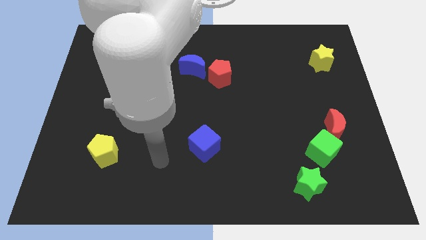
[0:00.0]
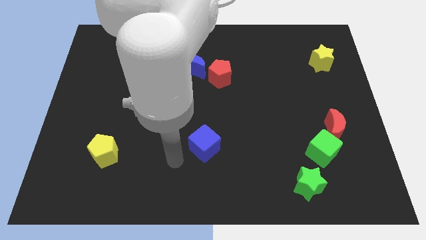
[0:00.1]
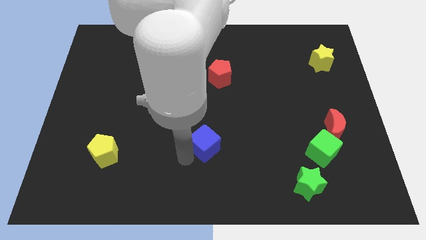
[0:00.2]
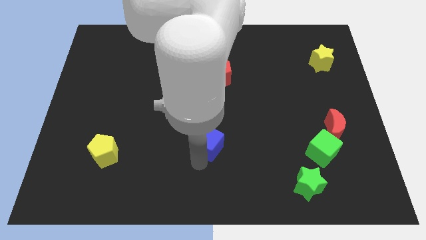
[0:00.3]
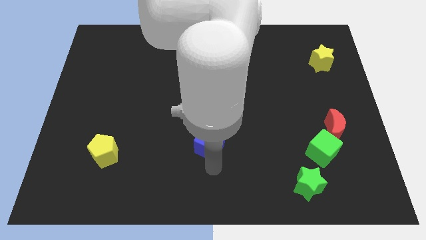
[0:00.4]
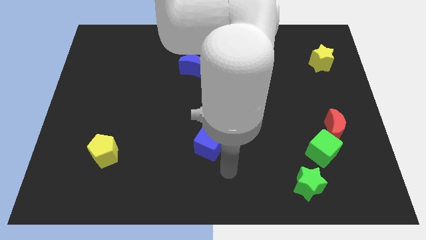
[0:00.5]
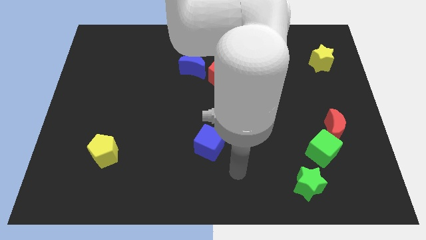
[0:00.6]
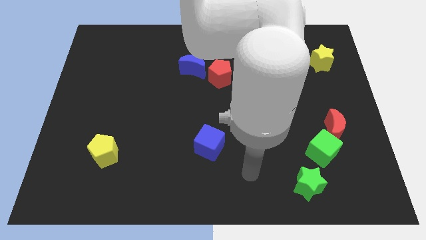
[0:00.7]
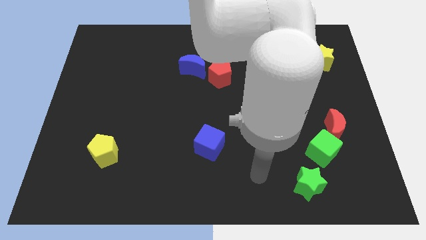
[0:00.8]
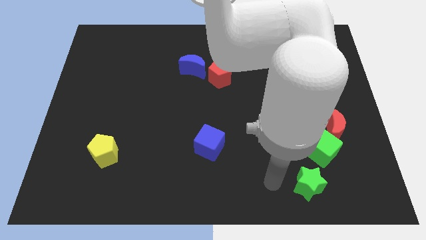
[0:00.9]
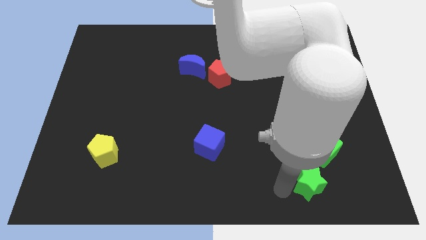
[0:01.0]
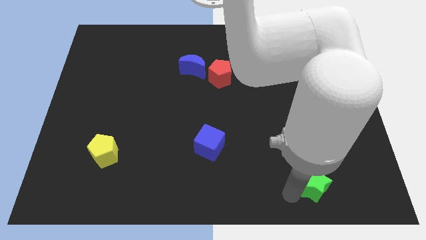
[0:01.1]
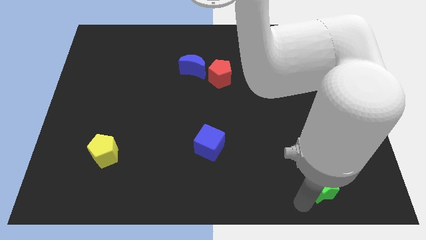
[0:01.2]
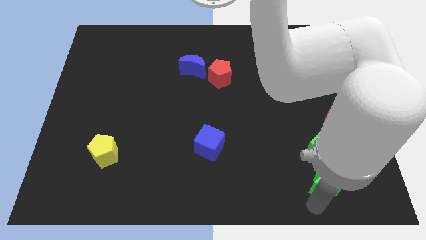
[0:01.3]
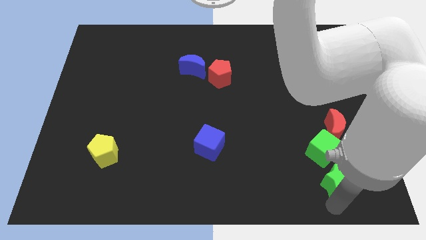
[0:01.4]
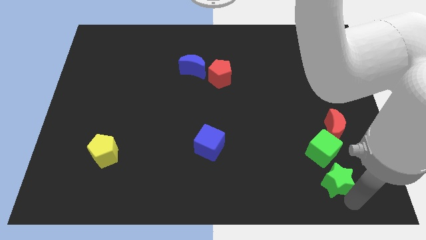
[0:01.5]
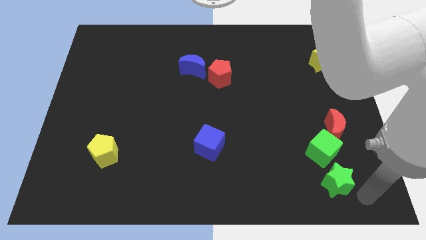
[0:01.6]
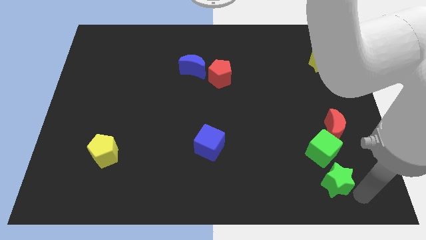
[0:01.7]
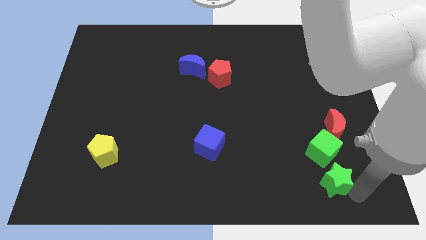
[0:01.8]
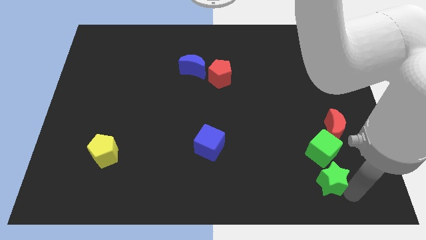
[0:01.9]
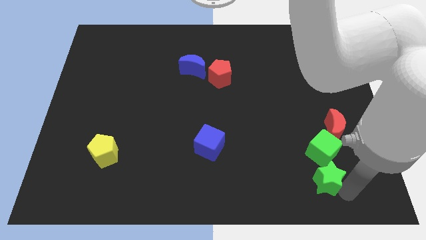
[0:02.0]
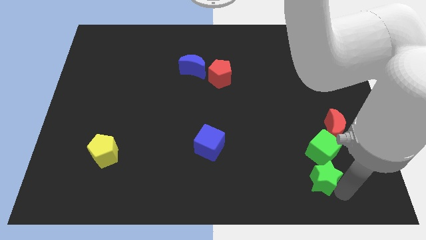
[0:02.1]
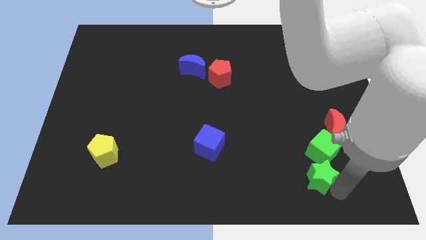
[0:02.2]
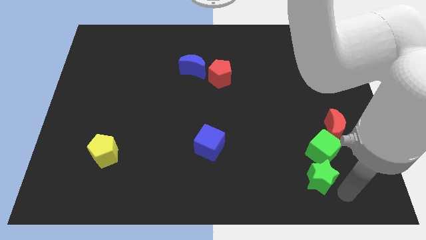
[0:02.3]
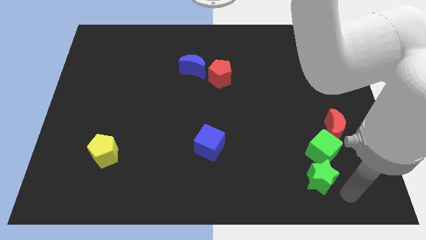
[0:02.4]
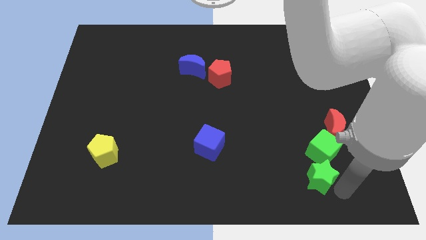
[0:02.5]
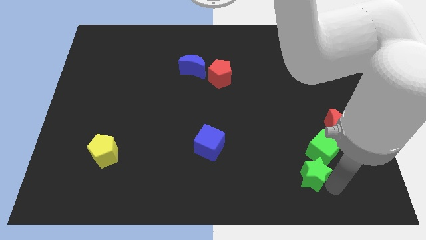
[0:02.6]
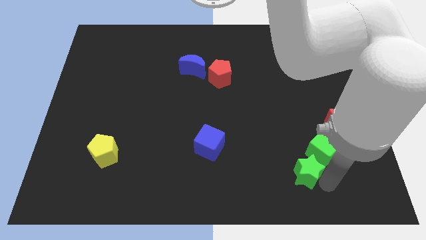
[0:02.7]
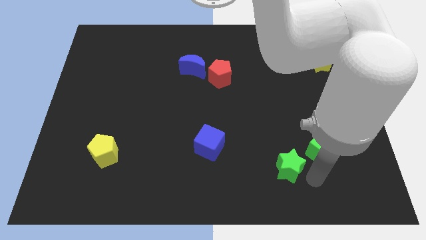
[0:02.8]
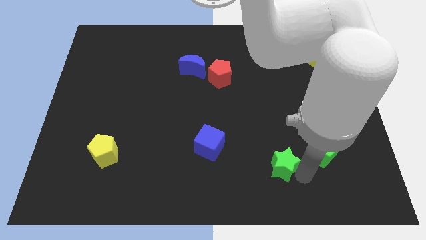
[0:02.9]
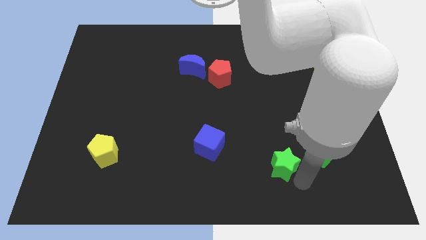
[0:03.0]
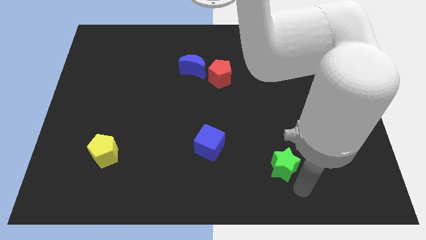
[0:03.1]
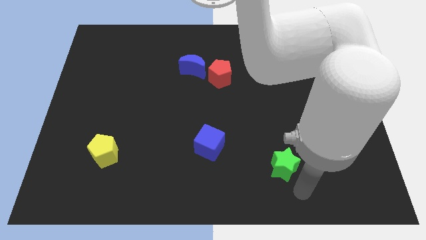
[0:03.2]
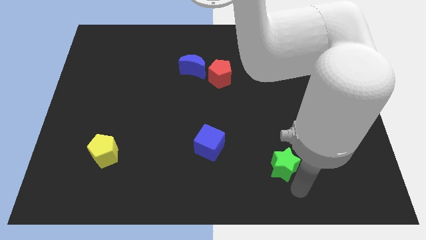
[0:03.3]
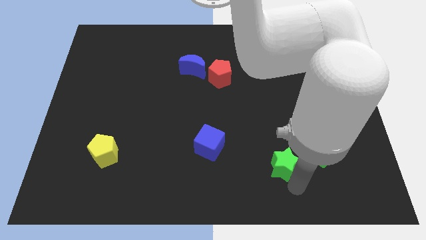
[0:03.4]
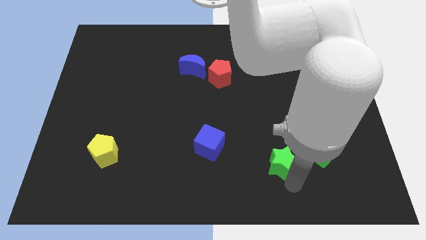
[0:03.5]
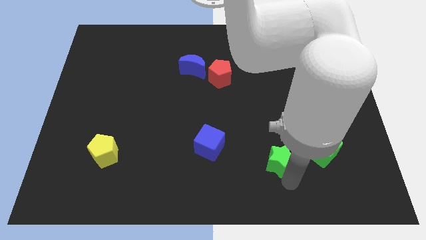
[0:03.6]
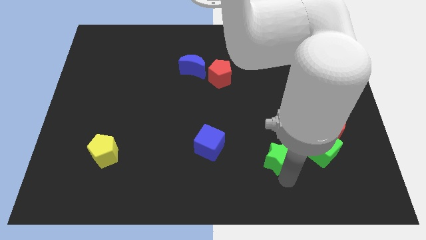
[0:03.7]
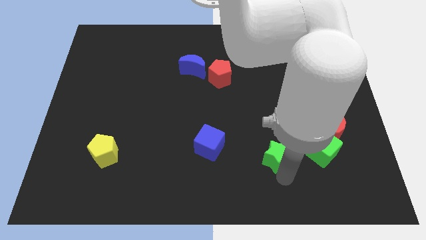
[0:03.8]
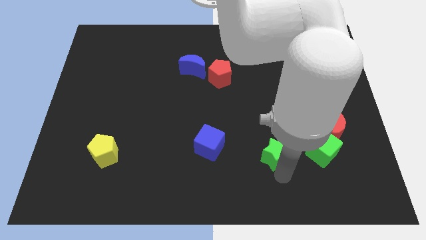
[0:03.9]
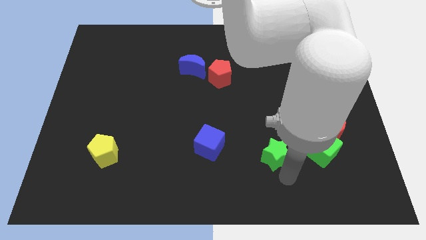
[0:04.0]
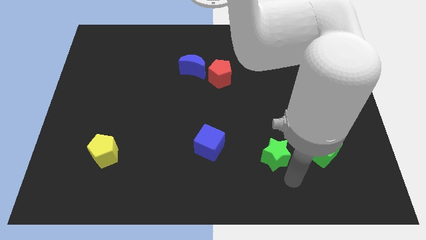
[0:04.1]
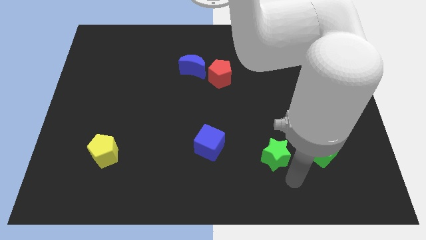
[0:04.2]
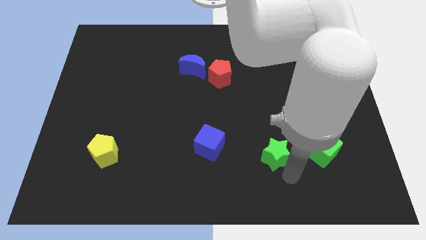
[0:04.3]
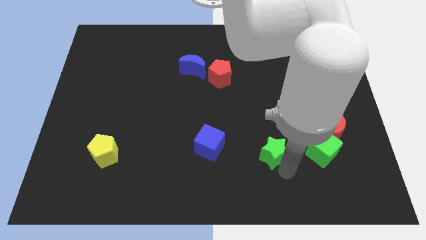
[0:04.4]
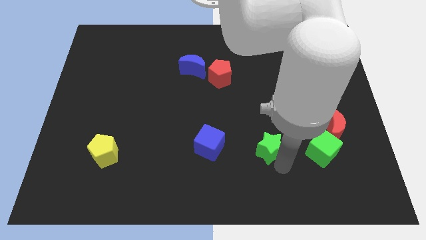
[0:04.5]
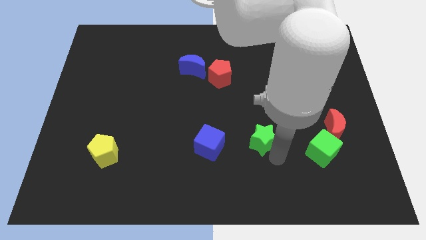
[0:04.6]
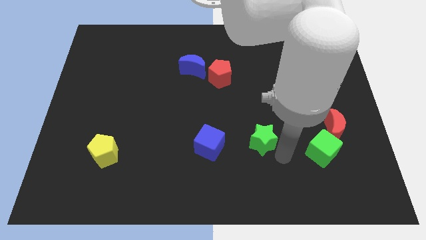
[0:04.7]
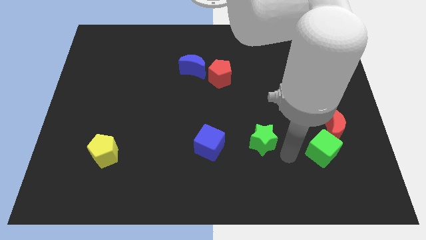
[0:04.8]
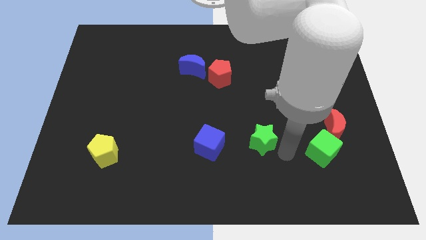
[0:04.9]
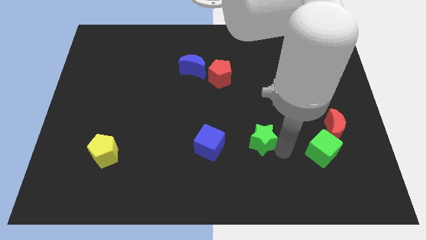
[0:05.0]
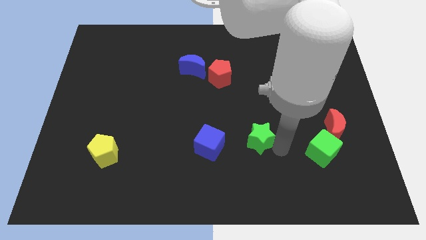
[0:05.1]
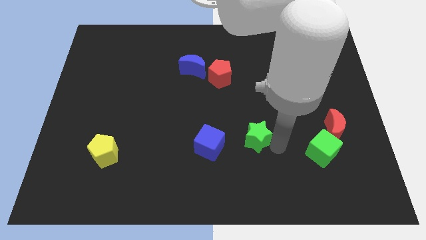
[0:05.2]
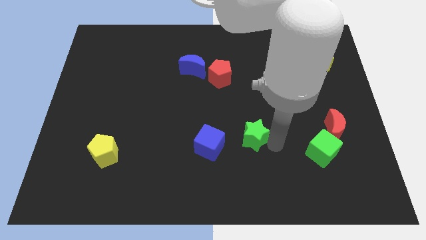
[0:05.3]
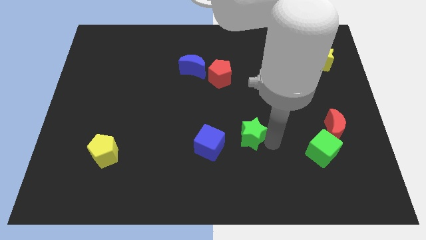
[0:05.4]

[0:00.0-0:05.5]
move the green star diagonally up and to the right of the blue cube

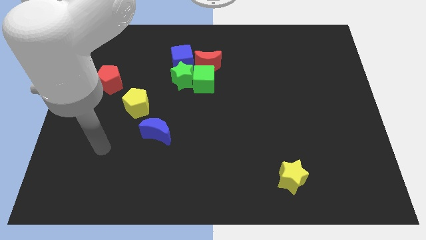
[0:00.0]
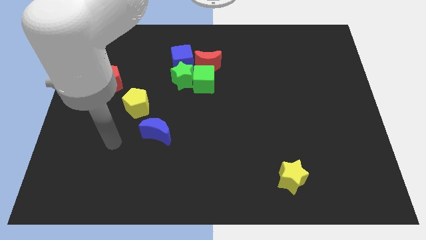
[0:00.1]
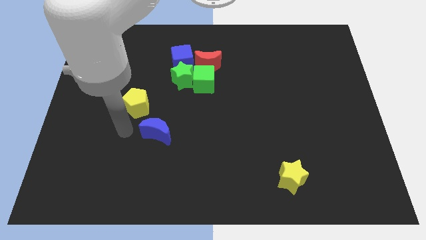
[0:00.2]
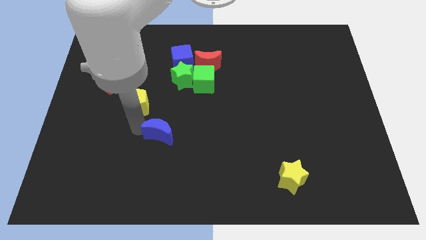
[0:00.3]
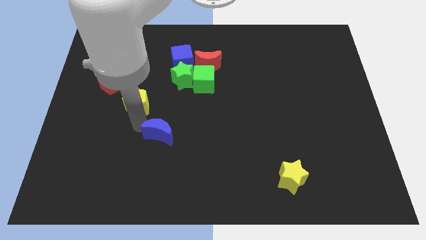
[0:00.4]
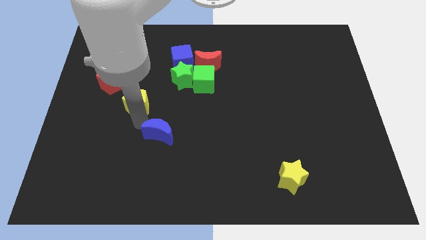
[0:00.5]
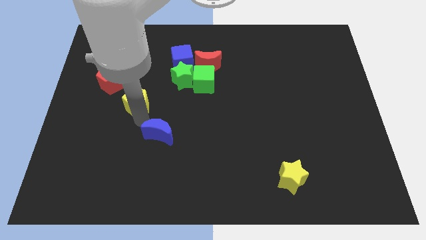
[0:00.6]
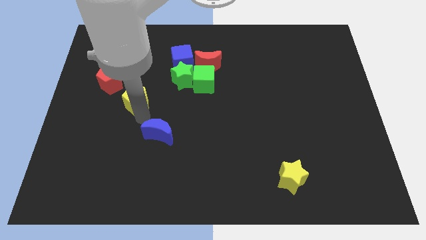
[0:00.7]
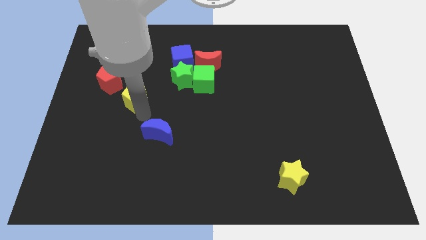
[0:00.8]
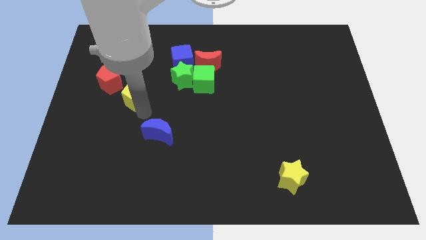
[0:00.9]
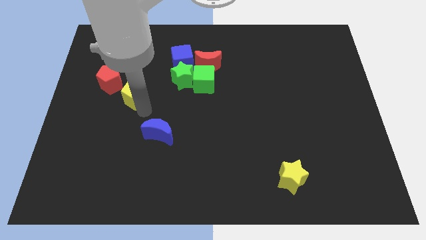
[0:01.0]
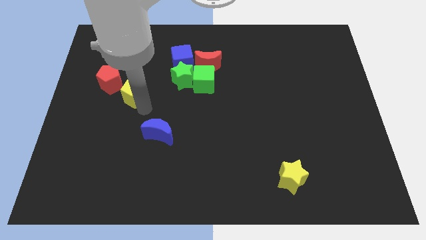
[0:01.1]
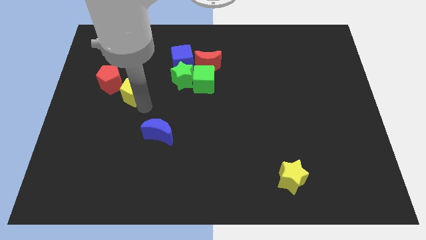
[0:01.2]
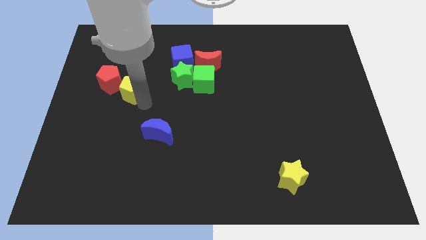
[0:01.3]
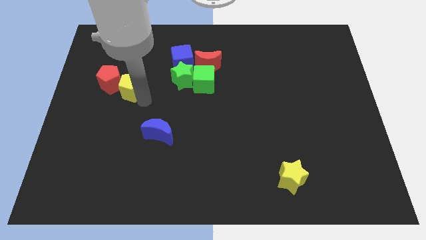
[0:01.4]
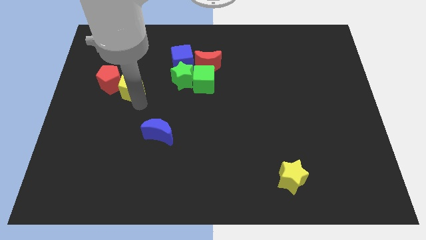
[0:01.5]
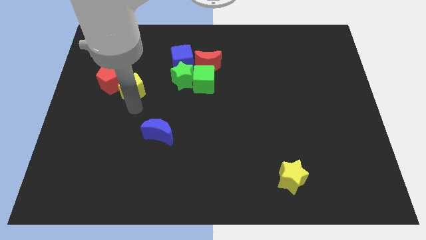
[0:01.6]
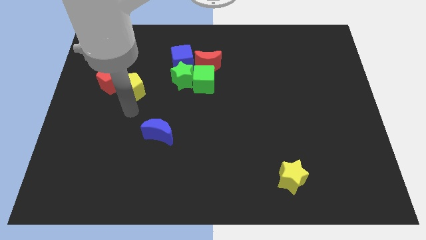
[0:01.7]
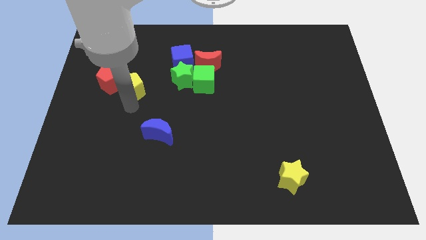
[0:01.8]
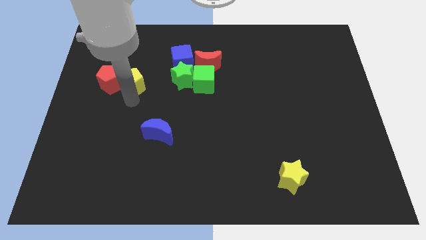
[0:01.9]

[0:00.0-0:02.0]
move the yellow pentagon to the top right of the red pentagon

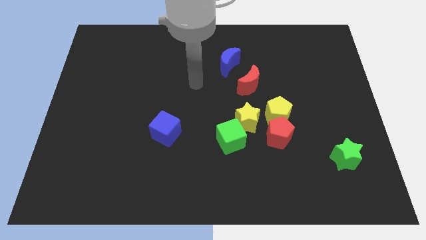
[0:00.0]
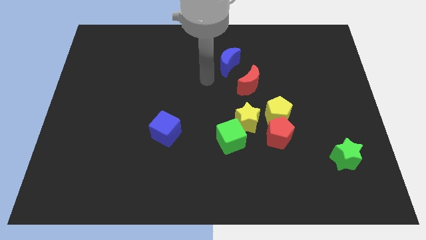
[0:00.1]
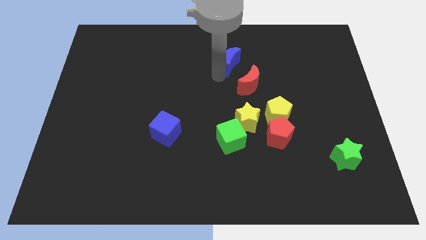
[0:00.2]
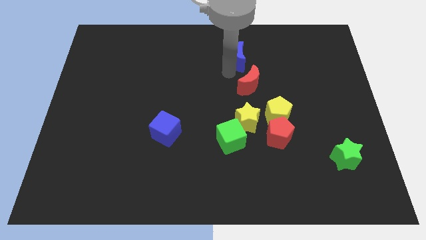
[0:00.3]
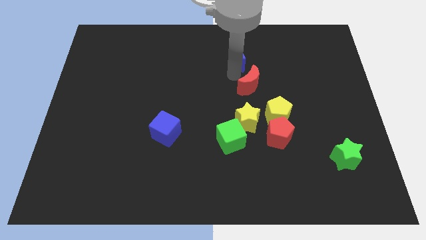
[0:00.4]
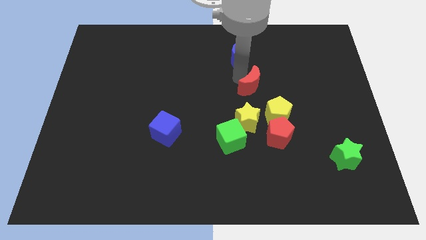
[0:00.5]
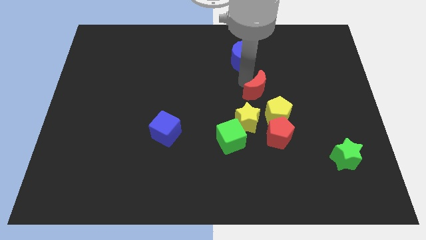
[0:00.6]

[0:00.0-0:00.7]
put the red moon above the red pentagon
